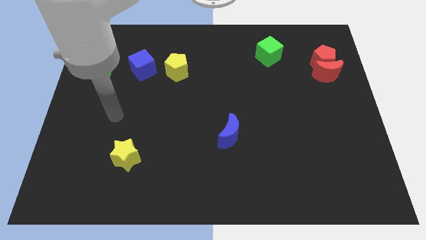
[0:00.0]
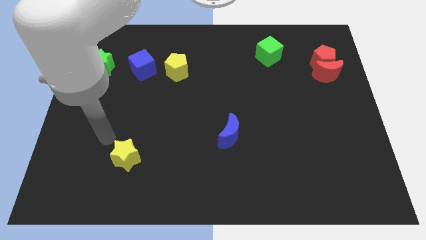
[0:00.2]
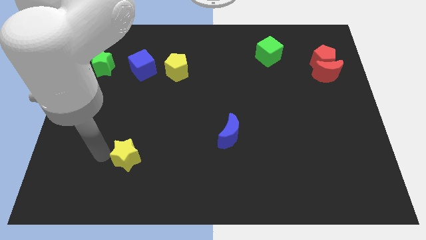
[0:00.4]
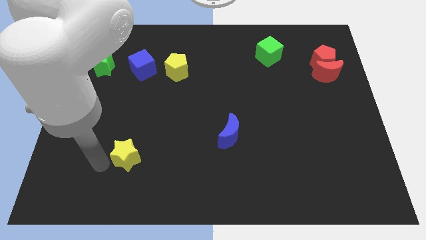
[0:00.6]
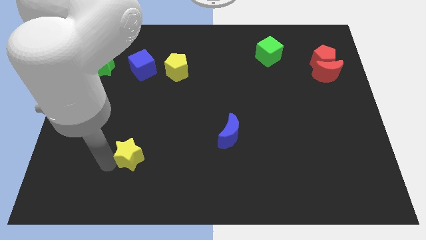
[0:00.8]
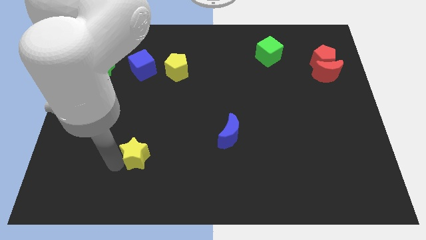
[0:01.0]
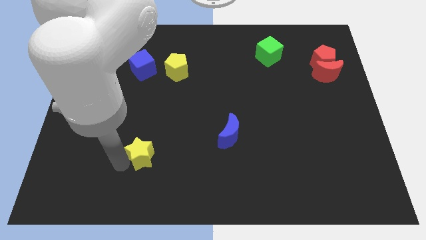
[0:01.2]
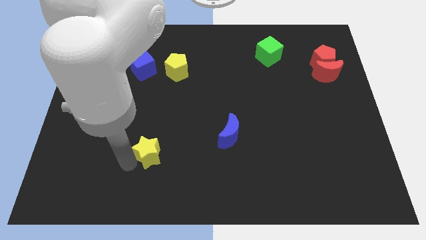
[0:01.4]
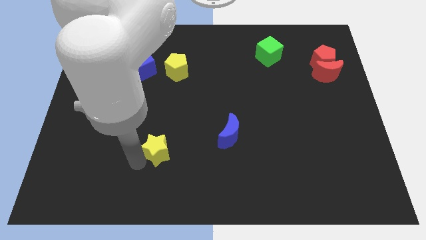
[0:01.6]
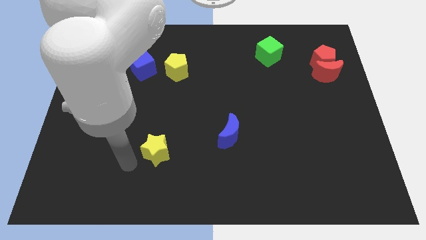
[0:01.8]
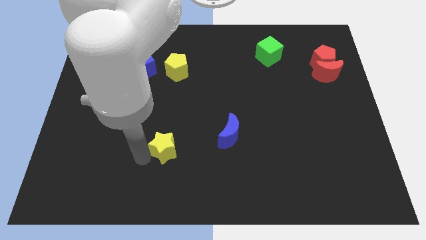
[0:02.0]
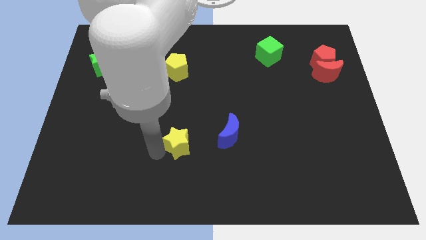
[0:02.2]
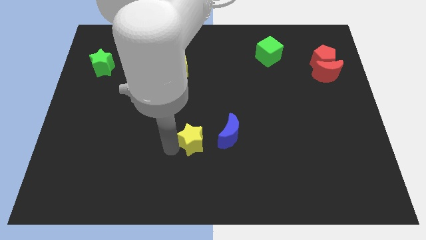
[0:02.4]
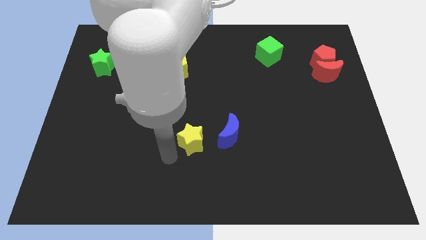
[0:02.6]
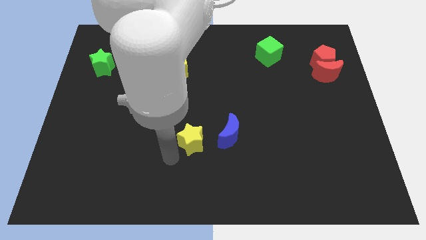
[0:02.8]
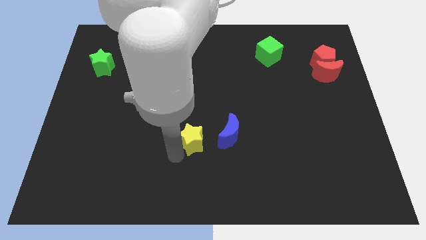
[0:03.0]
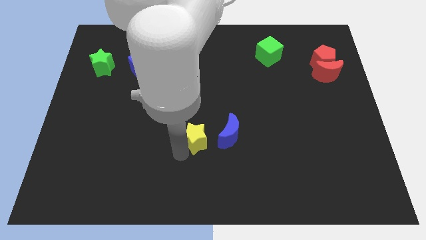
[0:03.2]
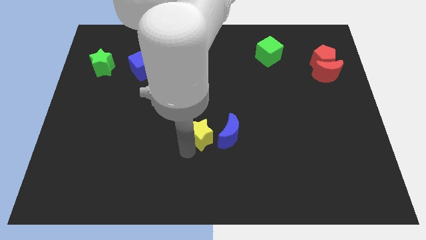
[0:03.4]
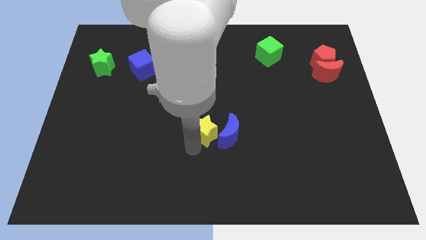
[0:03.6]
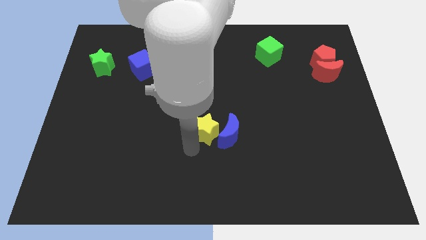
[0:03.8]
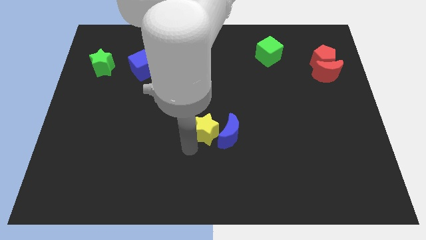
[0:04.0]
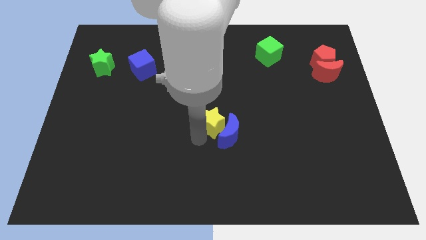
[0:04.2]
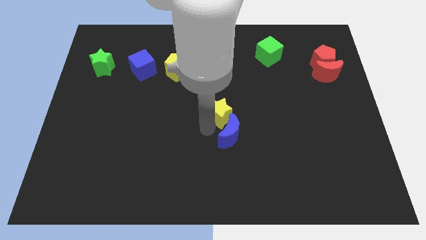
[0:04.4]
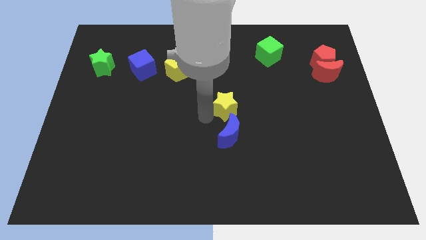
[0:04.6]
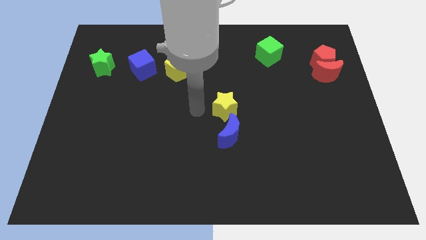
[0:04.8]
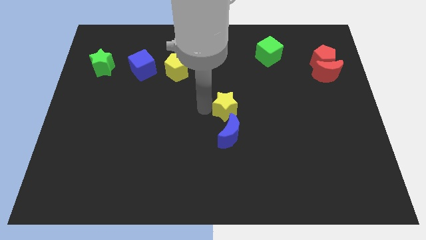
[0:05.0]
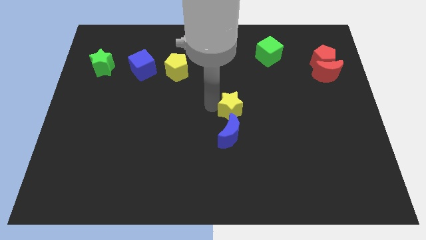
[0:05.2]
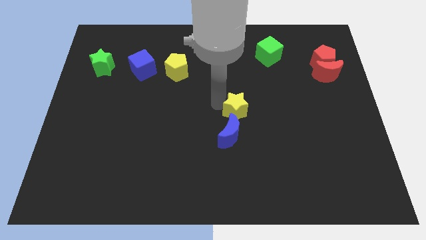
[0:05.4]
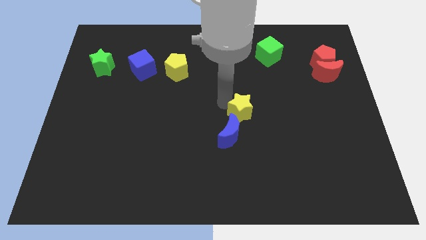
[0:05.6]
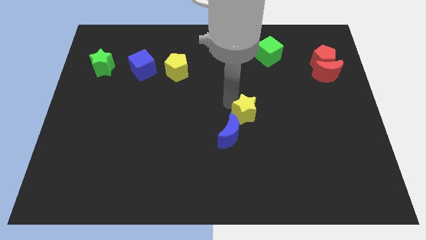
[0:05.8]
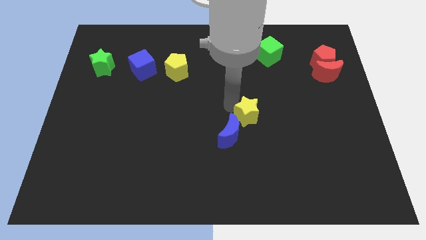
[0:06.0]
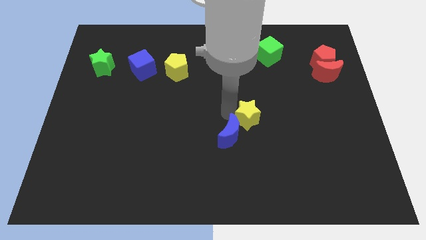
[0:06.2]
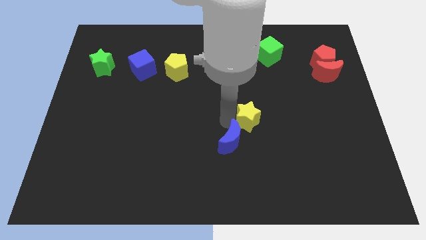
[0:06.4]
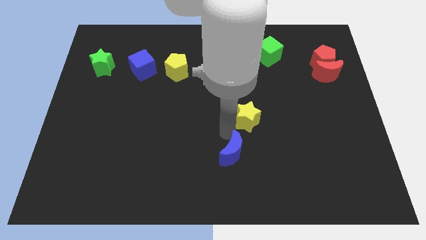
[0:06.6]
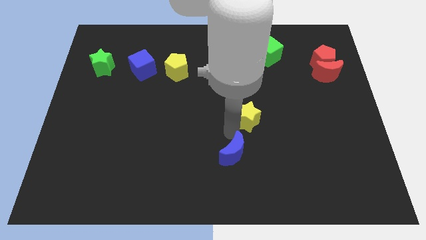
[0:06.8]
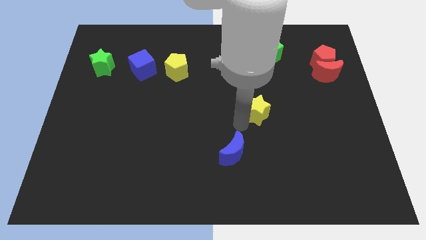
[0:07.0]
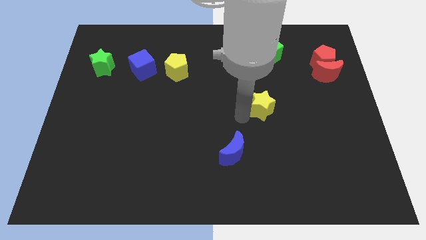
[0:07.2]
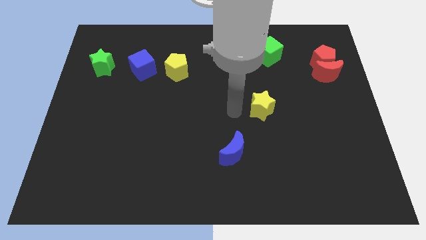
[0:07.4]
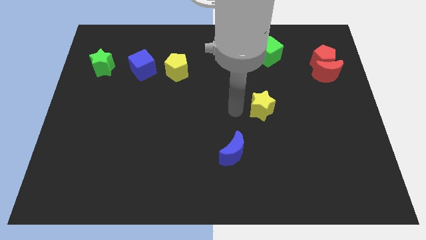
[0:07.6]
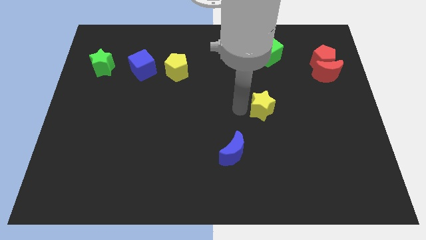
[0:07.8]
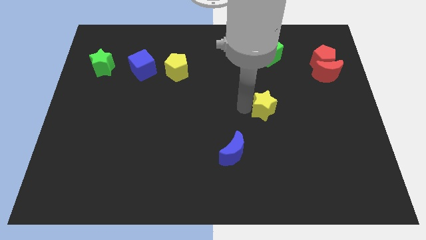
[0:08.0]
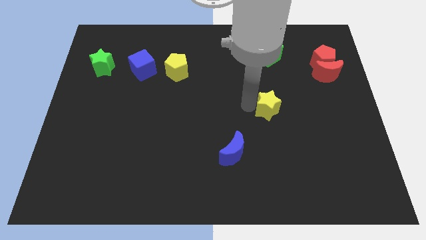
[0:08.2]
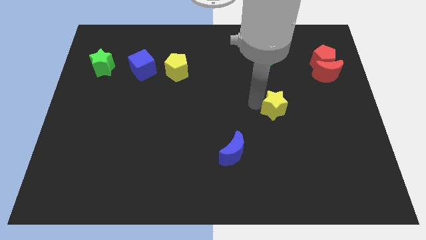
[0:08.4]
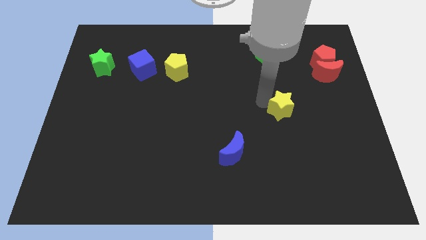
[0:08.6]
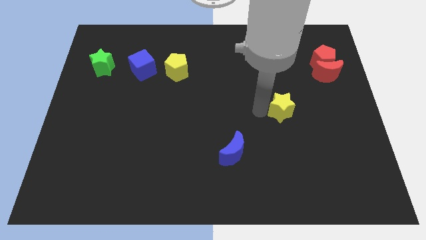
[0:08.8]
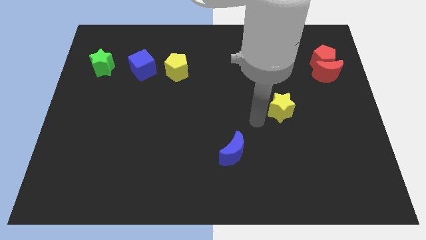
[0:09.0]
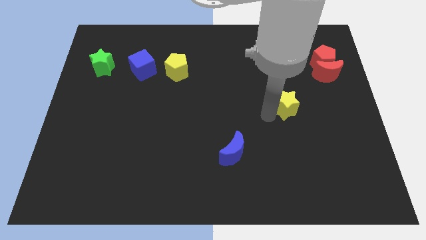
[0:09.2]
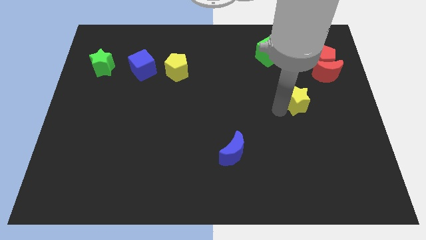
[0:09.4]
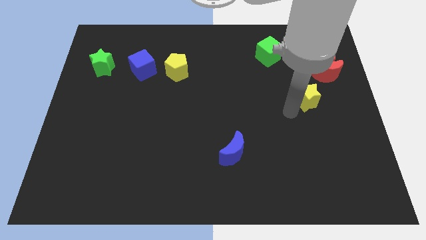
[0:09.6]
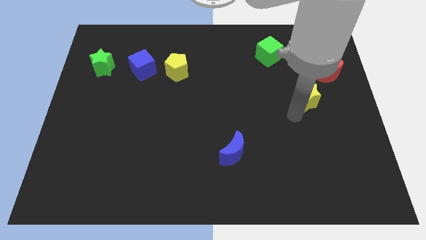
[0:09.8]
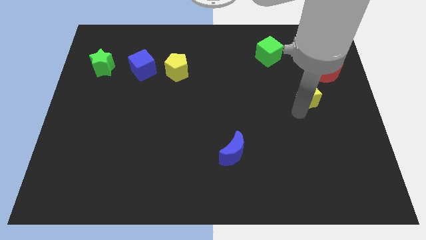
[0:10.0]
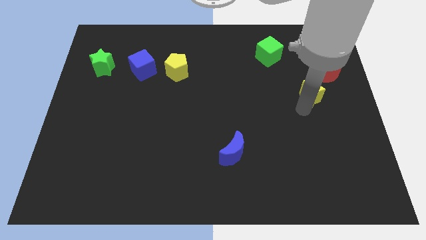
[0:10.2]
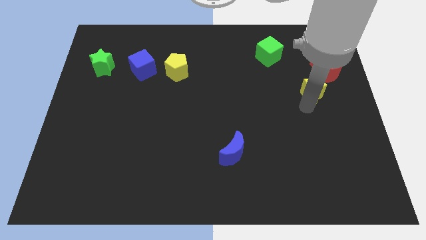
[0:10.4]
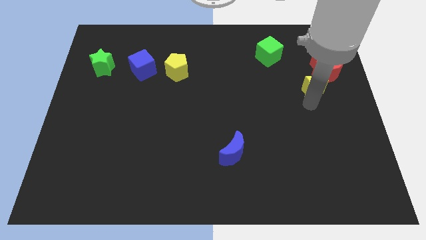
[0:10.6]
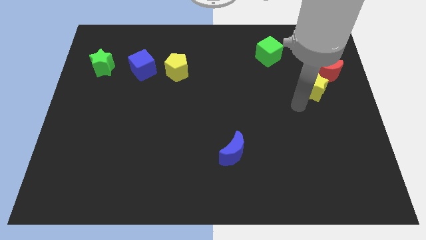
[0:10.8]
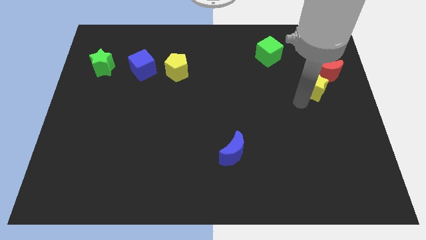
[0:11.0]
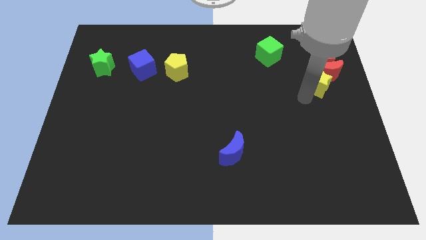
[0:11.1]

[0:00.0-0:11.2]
move the yellow star next to the red moon

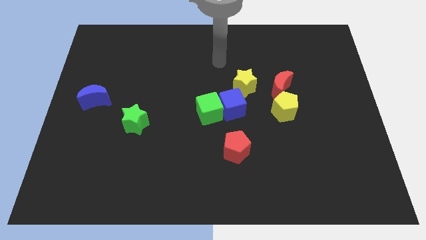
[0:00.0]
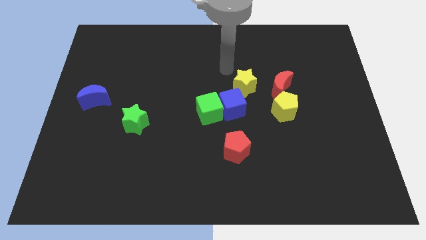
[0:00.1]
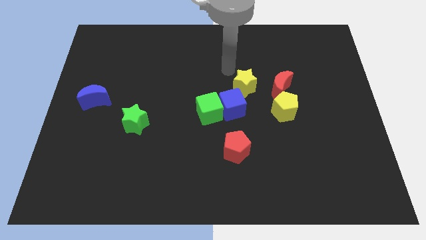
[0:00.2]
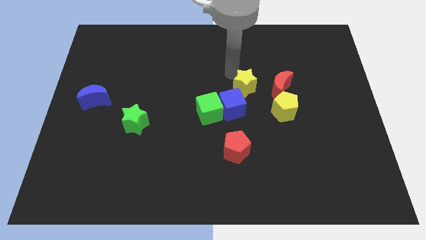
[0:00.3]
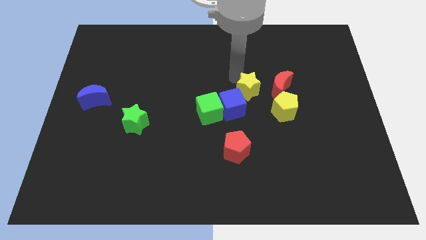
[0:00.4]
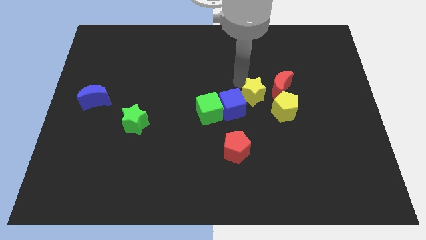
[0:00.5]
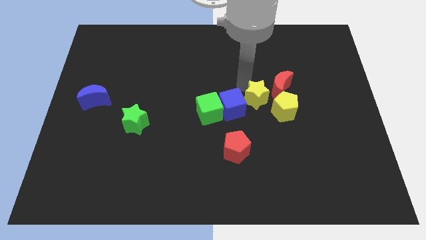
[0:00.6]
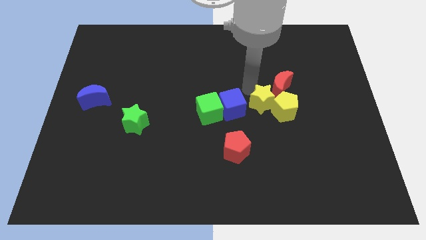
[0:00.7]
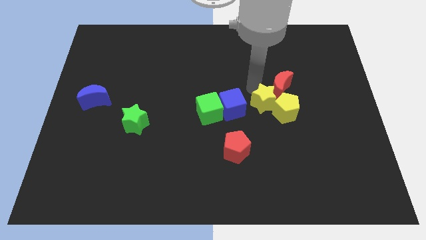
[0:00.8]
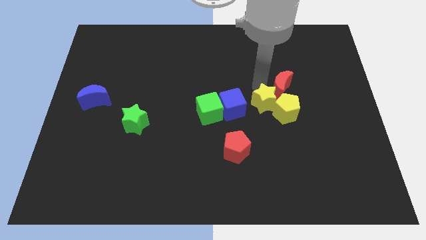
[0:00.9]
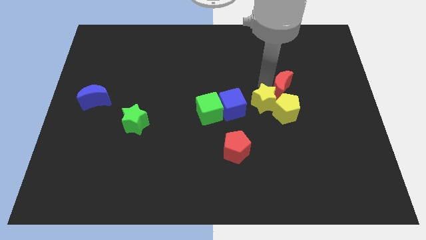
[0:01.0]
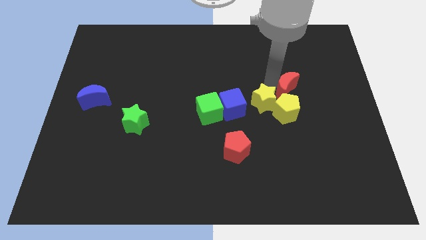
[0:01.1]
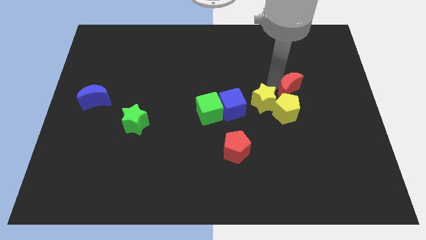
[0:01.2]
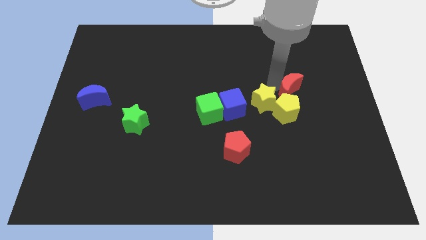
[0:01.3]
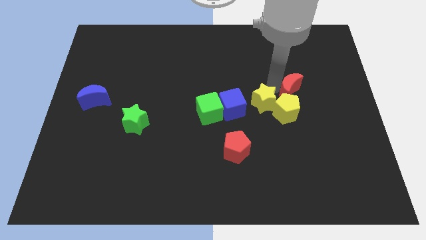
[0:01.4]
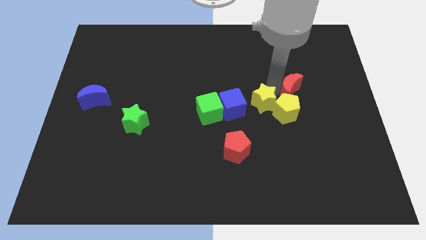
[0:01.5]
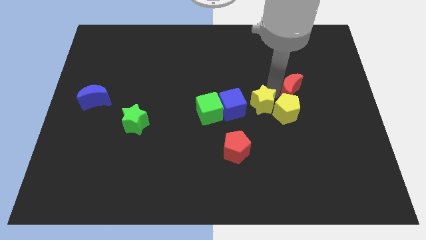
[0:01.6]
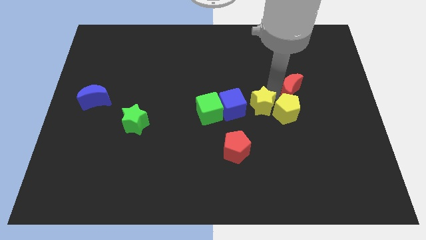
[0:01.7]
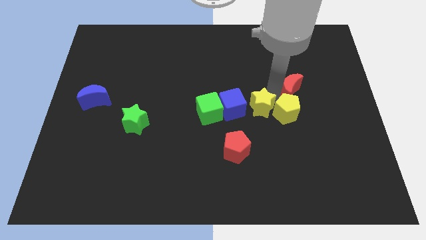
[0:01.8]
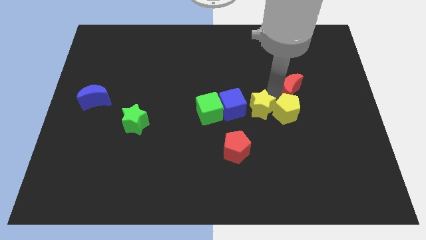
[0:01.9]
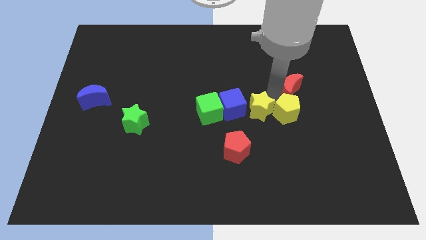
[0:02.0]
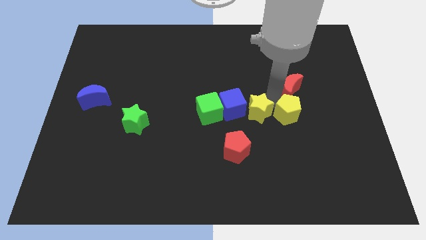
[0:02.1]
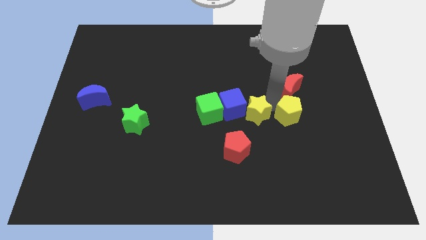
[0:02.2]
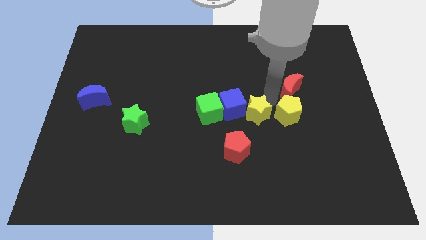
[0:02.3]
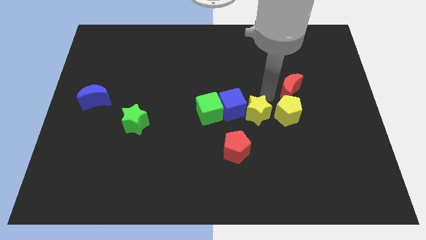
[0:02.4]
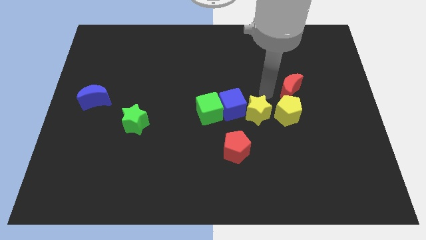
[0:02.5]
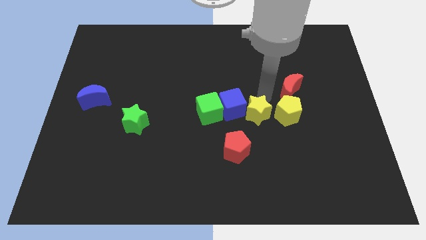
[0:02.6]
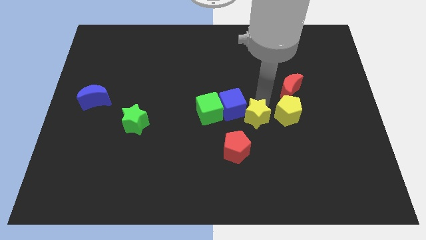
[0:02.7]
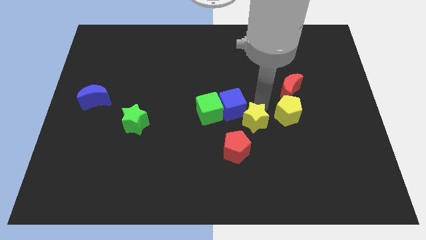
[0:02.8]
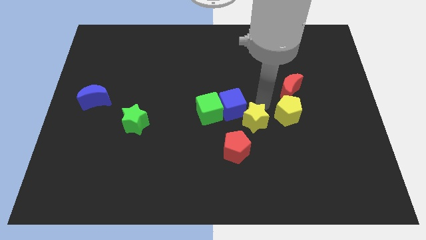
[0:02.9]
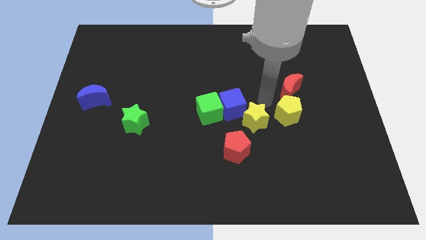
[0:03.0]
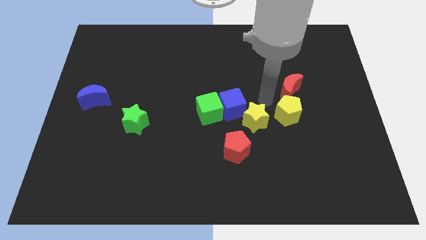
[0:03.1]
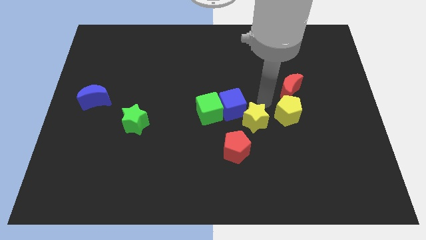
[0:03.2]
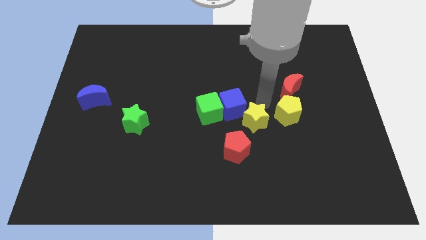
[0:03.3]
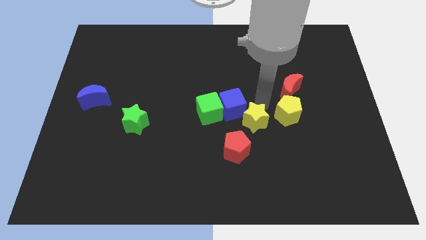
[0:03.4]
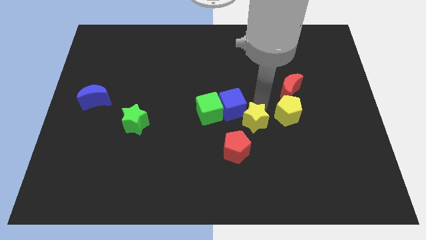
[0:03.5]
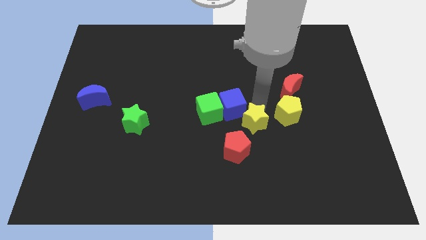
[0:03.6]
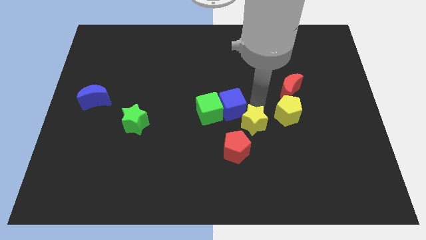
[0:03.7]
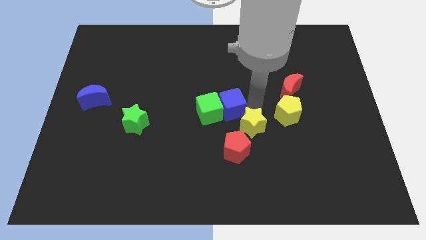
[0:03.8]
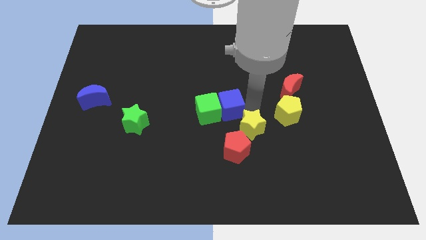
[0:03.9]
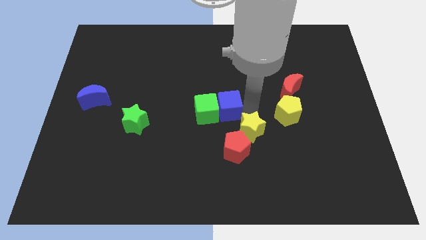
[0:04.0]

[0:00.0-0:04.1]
push the yellow star next to the red pentagon
